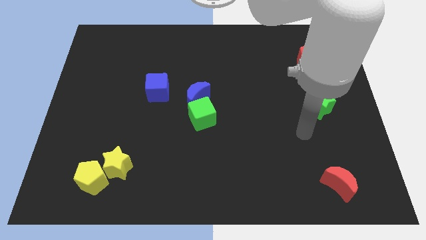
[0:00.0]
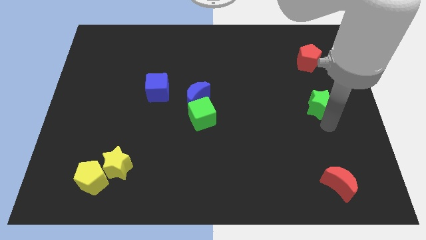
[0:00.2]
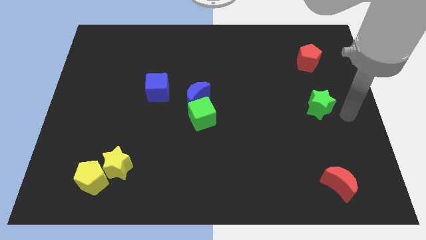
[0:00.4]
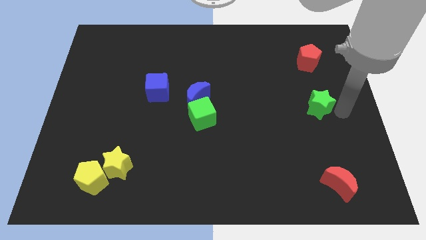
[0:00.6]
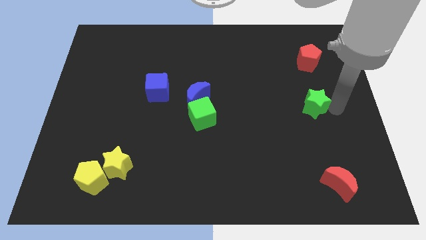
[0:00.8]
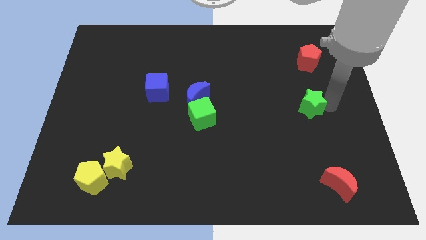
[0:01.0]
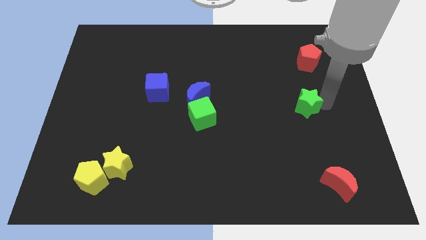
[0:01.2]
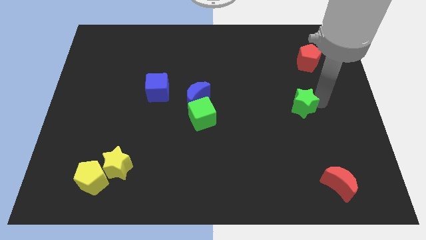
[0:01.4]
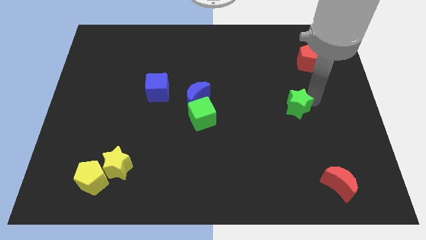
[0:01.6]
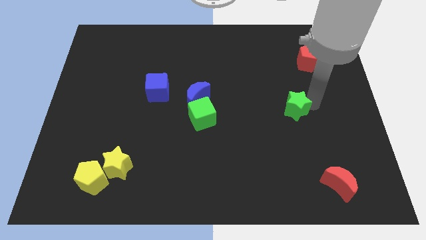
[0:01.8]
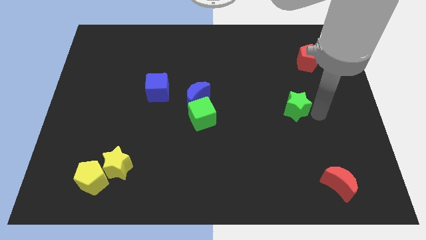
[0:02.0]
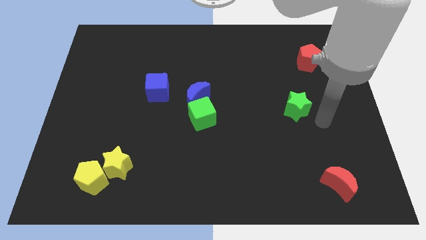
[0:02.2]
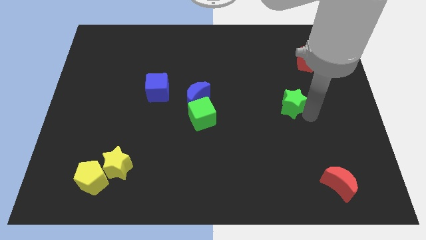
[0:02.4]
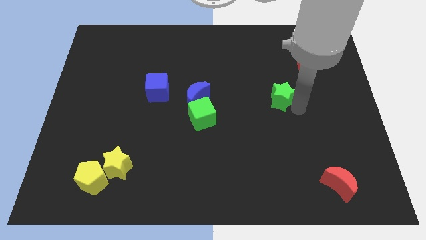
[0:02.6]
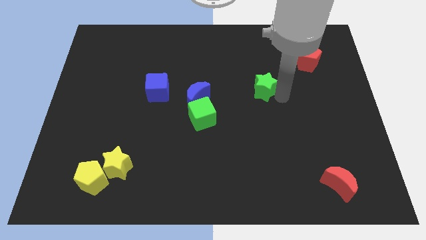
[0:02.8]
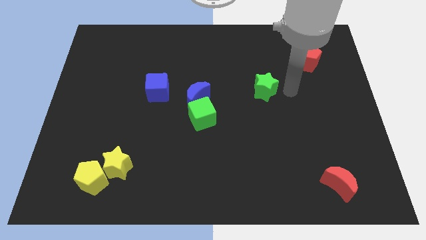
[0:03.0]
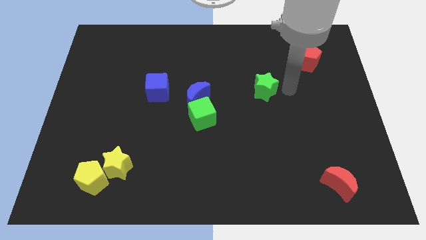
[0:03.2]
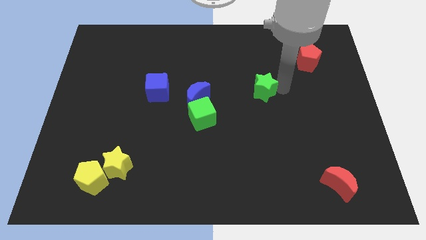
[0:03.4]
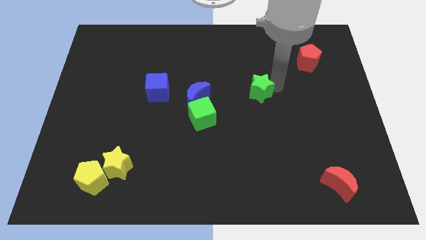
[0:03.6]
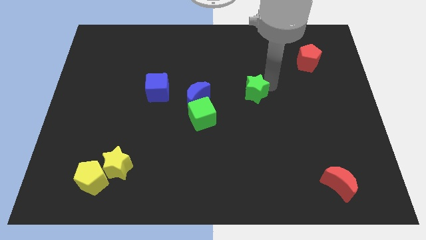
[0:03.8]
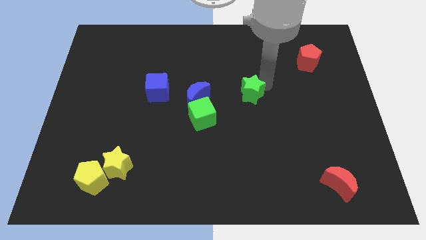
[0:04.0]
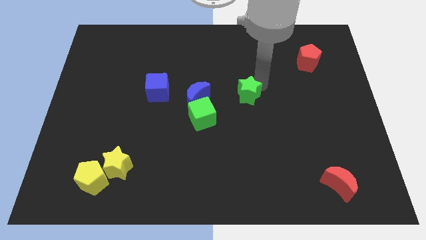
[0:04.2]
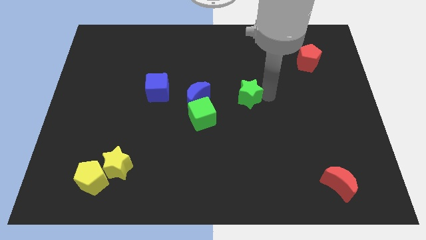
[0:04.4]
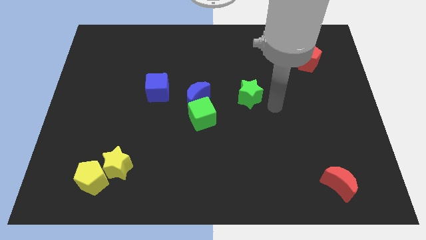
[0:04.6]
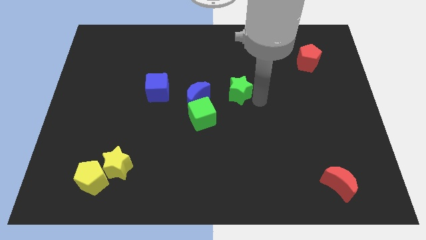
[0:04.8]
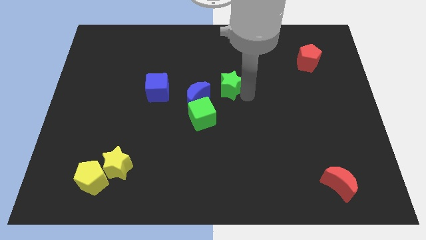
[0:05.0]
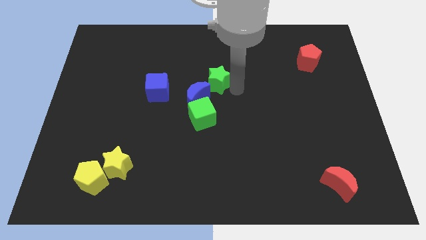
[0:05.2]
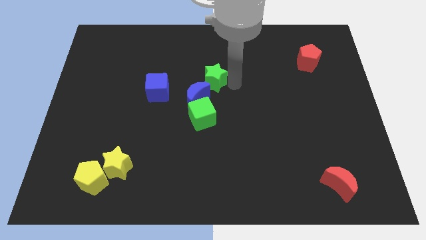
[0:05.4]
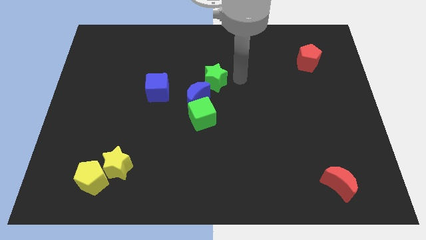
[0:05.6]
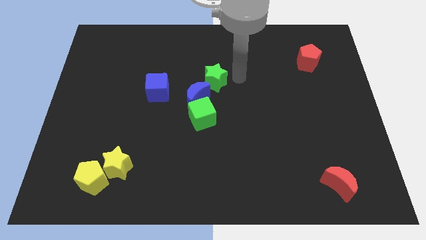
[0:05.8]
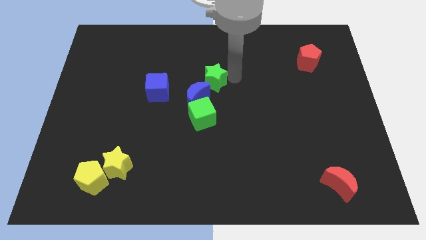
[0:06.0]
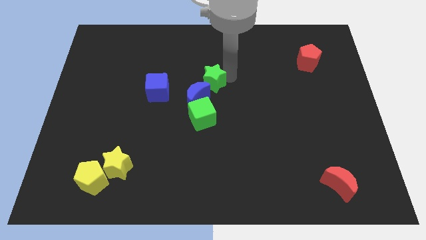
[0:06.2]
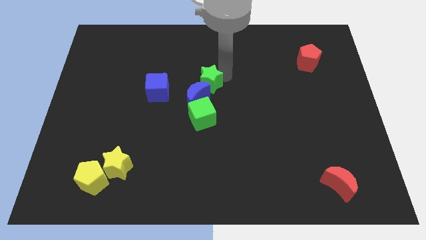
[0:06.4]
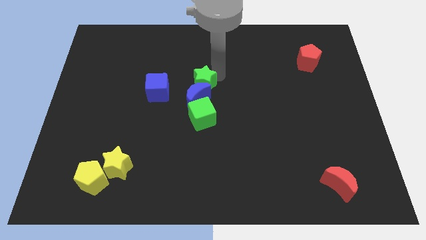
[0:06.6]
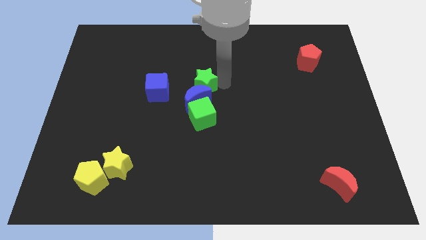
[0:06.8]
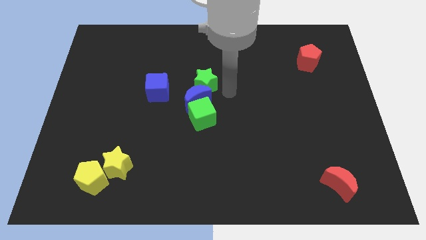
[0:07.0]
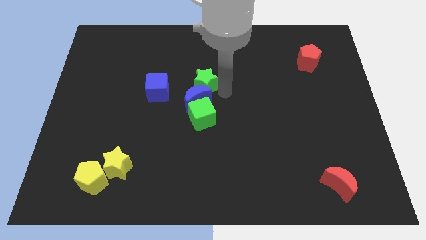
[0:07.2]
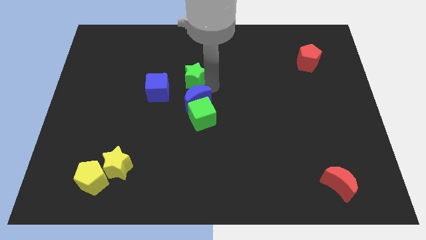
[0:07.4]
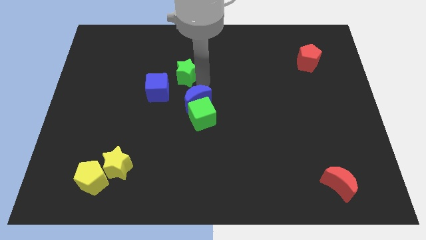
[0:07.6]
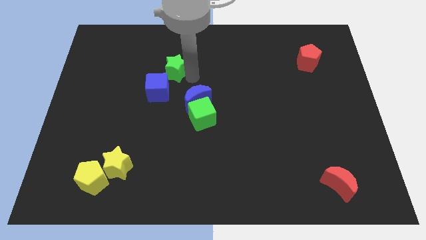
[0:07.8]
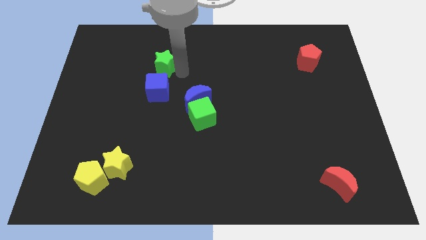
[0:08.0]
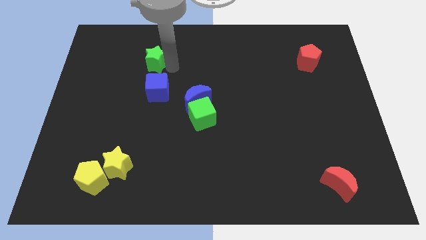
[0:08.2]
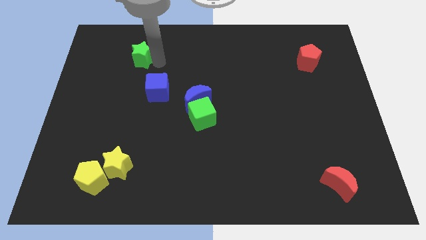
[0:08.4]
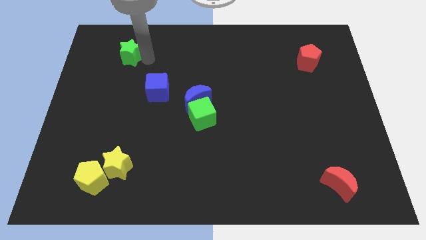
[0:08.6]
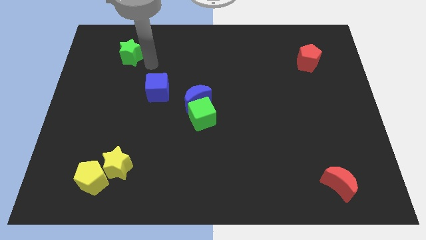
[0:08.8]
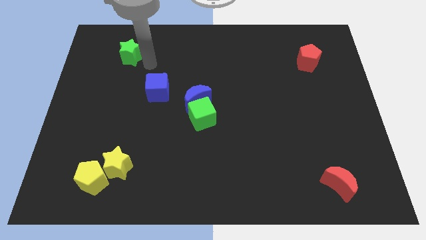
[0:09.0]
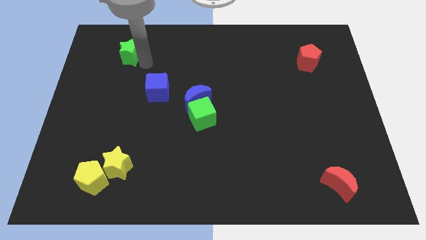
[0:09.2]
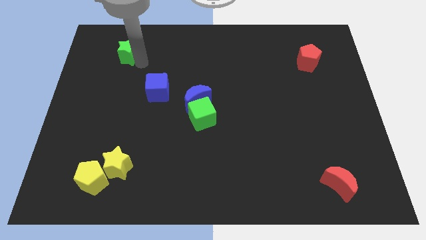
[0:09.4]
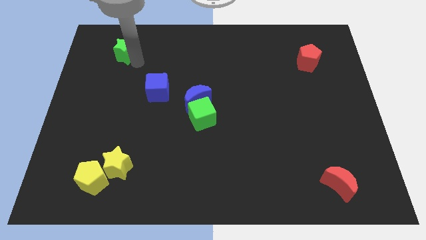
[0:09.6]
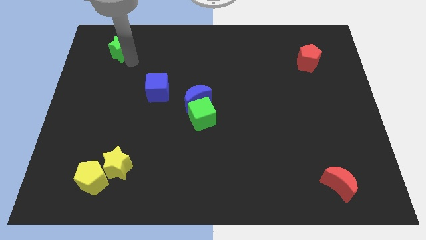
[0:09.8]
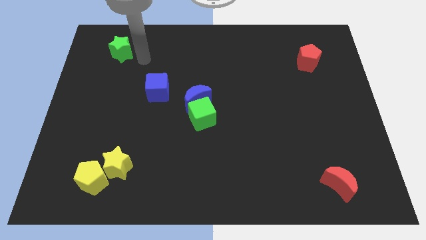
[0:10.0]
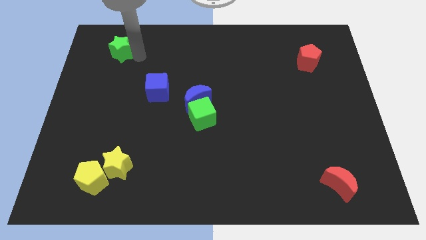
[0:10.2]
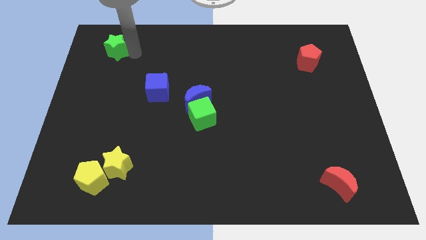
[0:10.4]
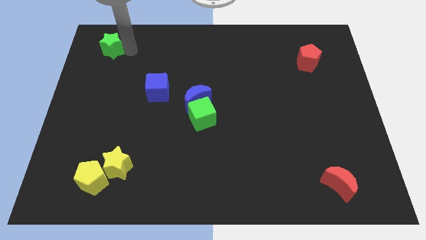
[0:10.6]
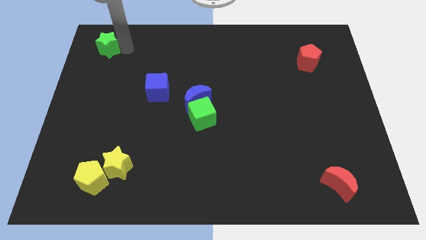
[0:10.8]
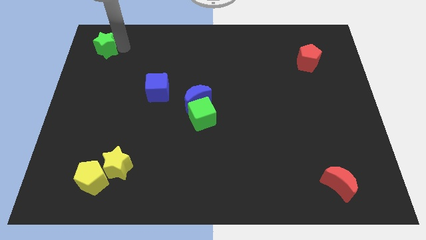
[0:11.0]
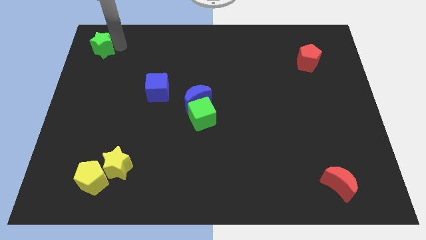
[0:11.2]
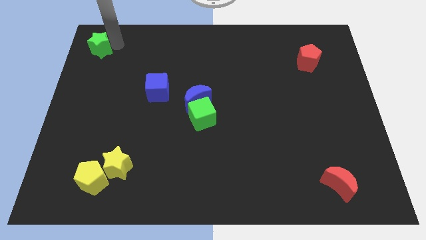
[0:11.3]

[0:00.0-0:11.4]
push the green star to the top left corner

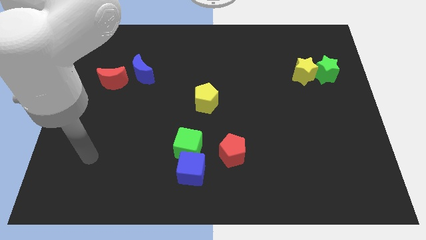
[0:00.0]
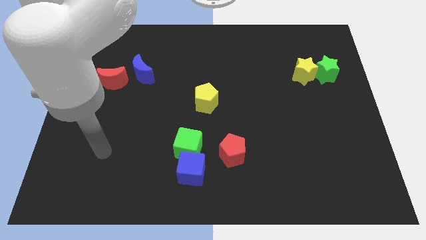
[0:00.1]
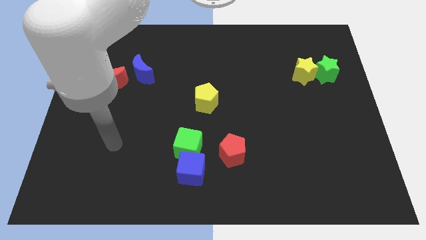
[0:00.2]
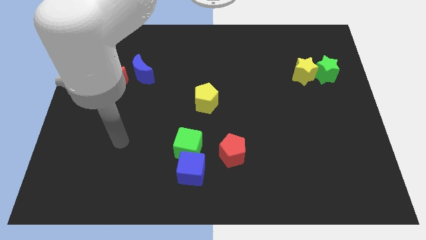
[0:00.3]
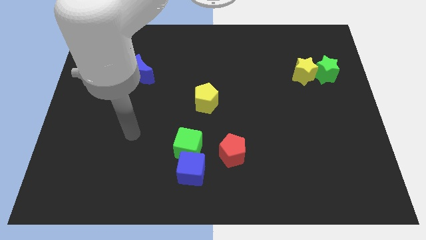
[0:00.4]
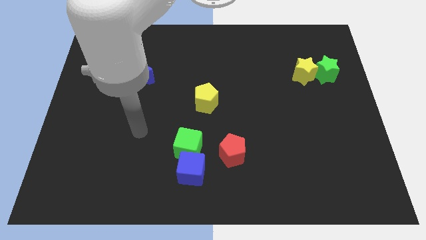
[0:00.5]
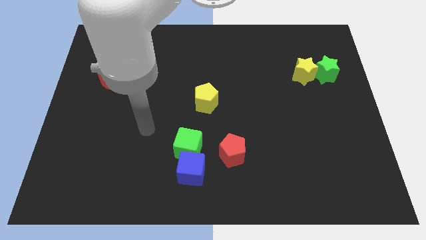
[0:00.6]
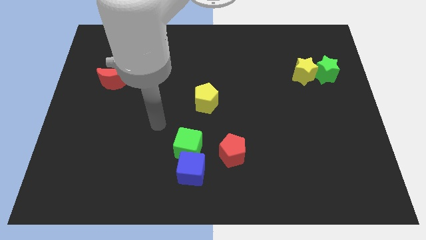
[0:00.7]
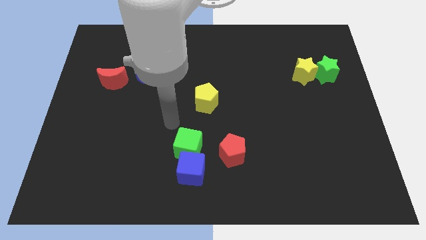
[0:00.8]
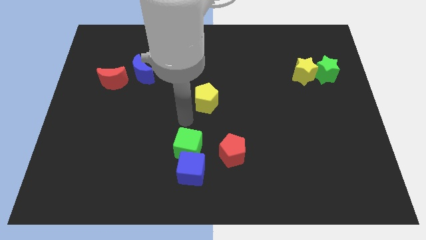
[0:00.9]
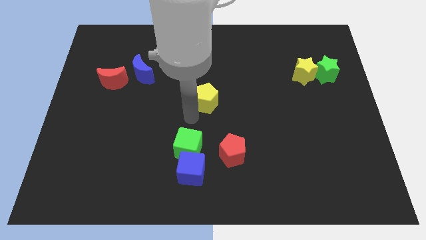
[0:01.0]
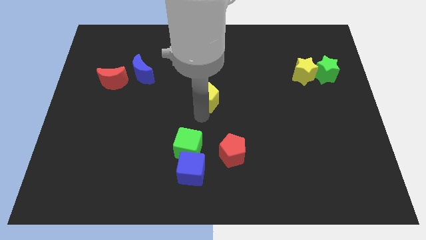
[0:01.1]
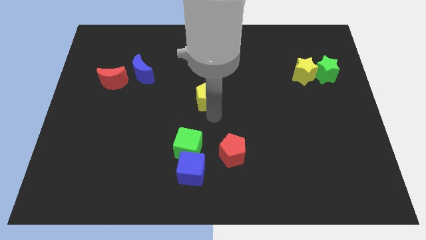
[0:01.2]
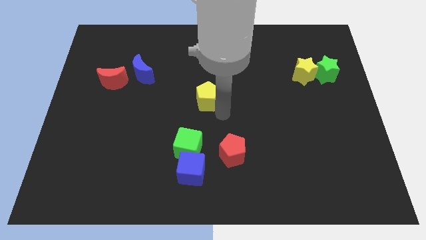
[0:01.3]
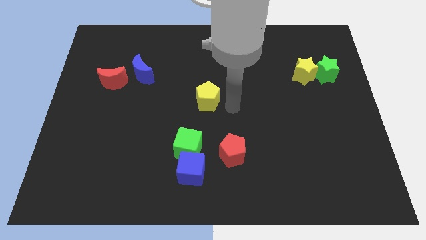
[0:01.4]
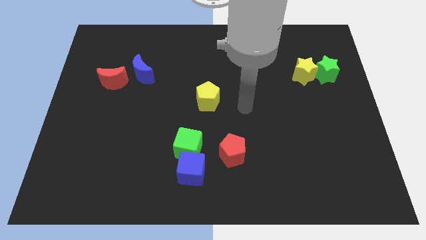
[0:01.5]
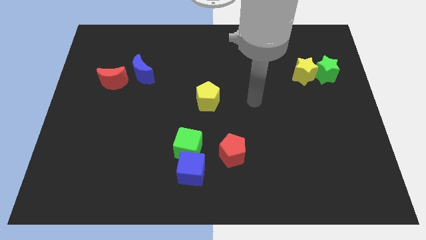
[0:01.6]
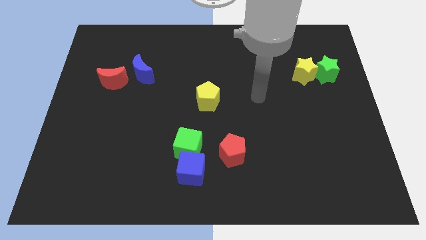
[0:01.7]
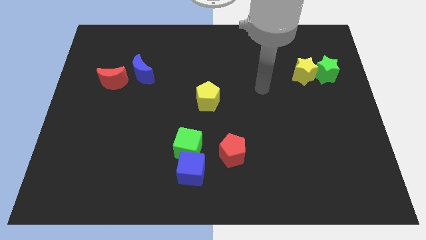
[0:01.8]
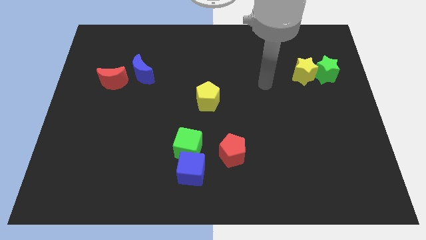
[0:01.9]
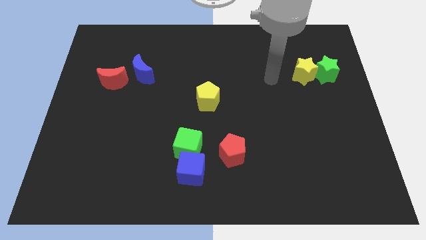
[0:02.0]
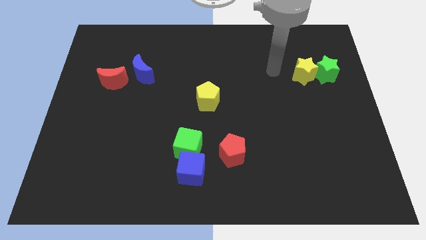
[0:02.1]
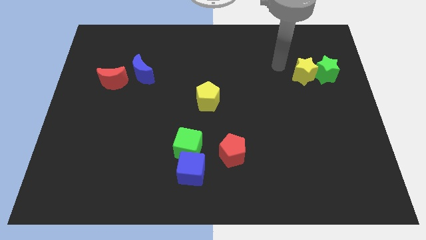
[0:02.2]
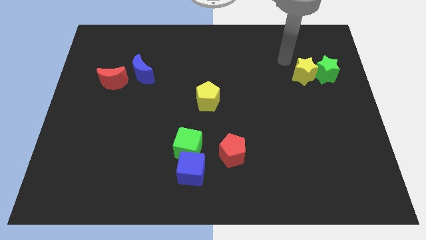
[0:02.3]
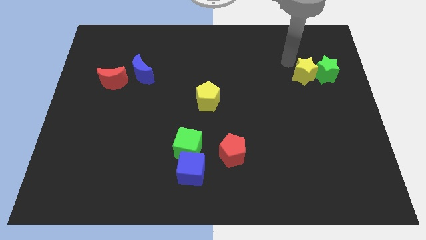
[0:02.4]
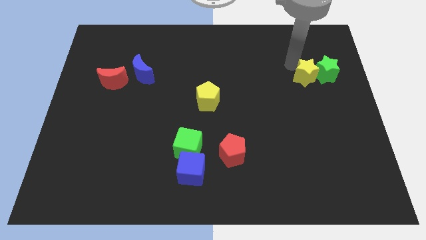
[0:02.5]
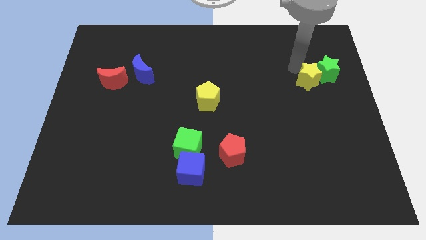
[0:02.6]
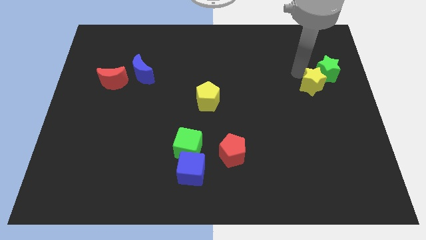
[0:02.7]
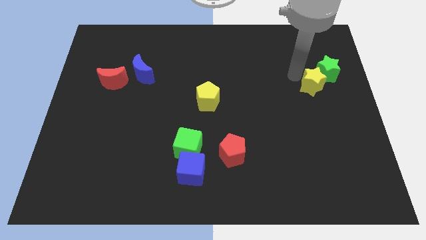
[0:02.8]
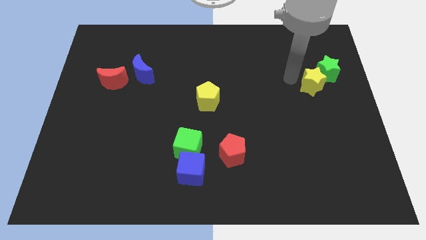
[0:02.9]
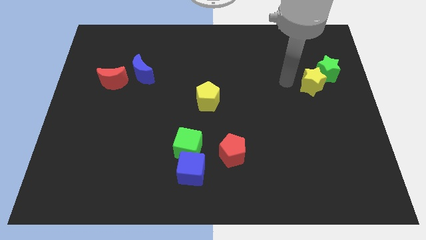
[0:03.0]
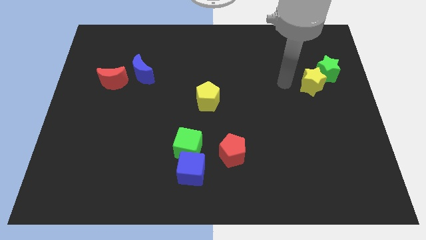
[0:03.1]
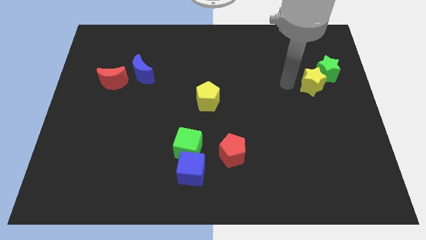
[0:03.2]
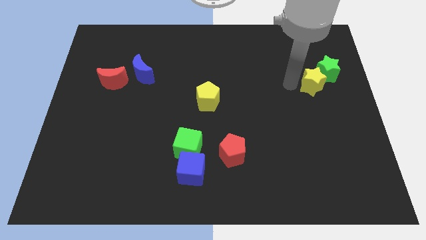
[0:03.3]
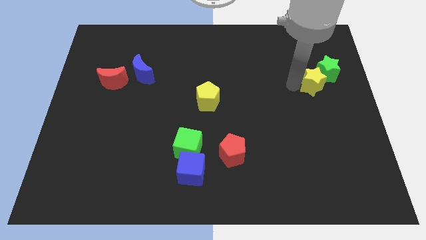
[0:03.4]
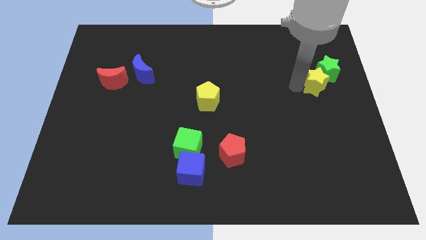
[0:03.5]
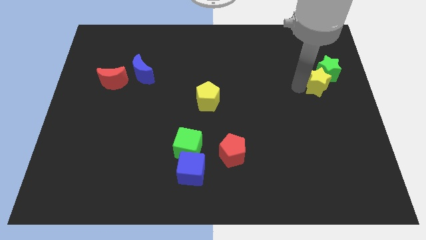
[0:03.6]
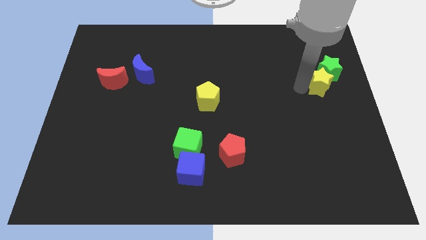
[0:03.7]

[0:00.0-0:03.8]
push the yellow star to the right side
